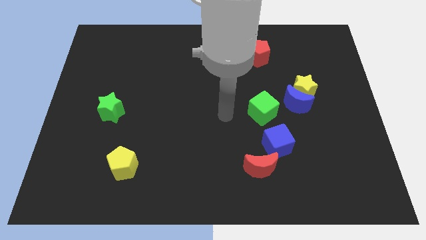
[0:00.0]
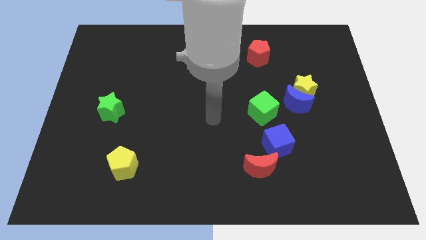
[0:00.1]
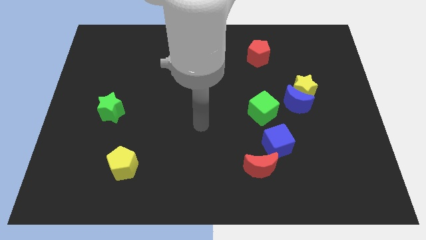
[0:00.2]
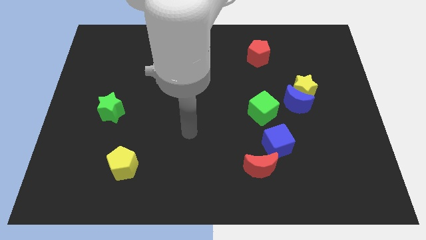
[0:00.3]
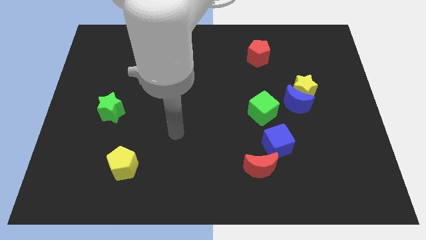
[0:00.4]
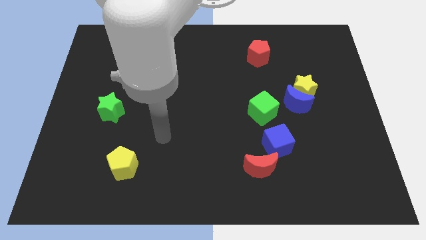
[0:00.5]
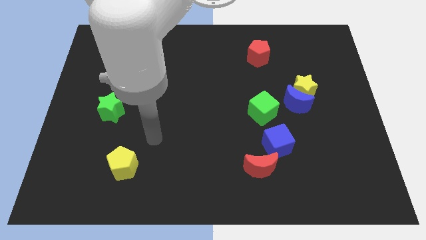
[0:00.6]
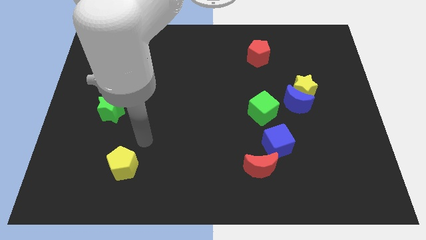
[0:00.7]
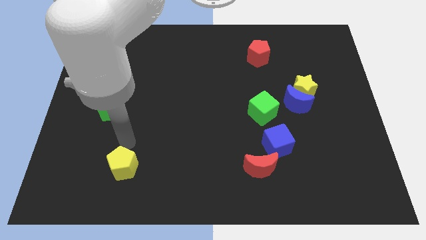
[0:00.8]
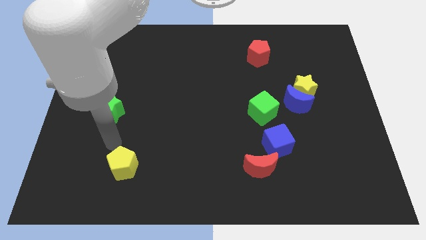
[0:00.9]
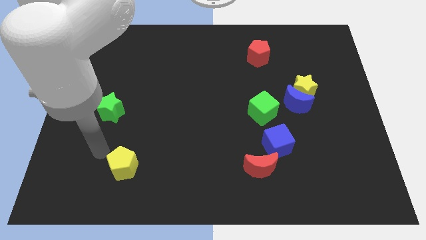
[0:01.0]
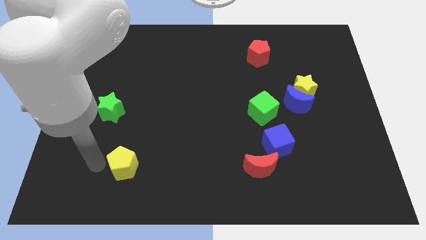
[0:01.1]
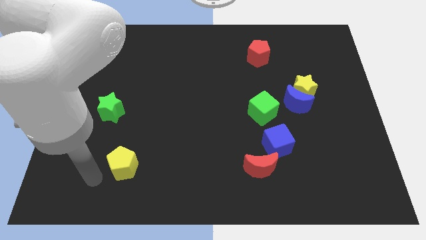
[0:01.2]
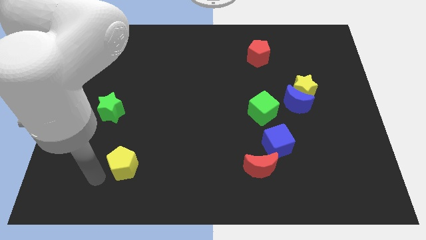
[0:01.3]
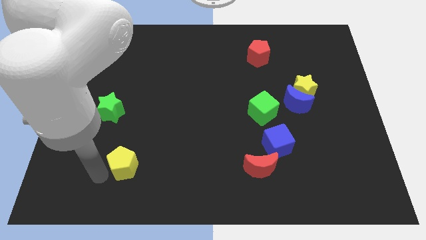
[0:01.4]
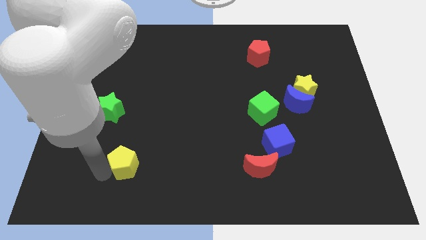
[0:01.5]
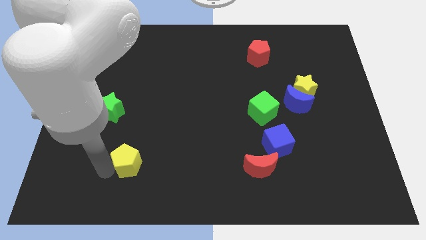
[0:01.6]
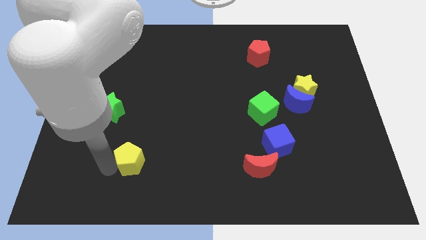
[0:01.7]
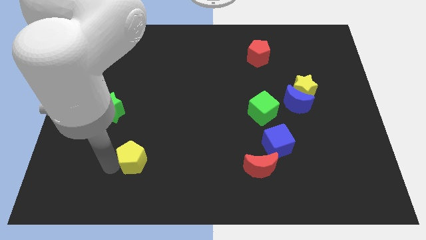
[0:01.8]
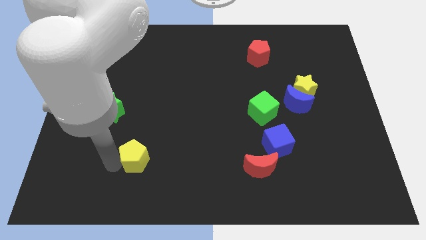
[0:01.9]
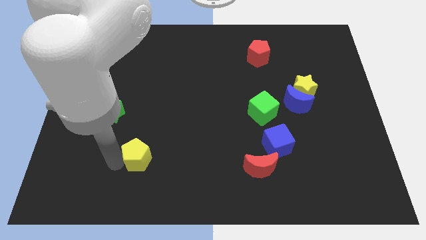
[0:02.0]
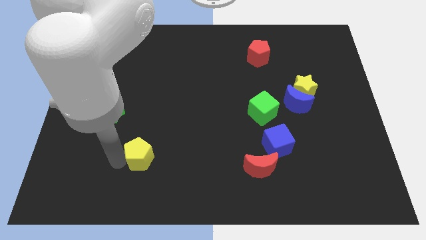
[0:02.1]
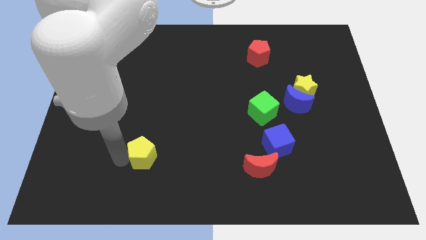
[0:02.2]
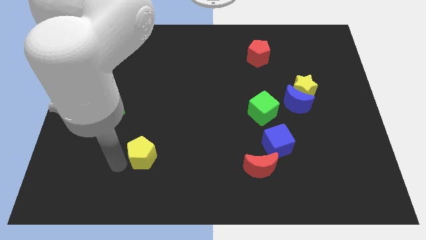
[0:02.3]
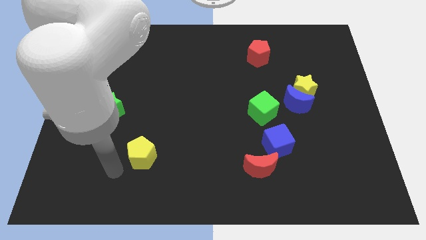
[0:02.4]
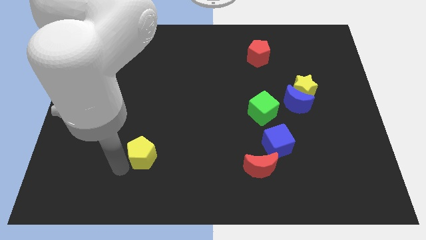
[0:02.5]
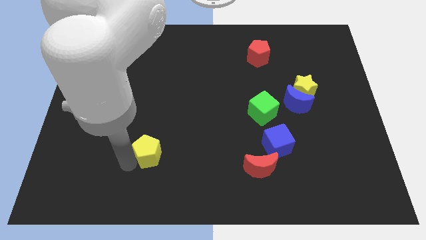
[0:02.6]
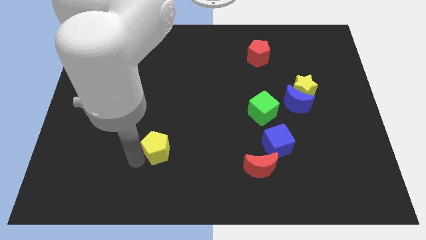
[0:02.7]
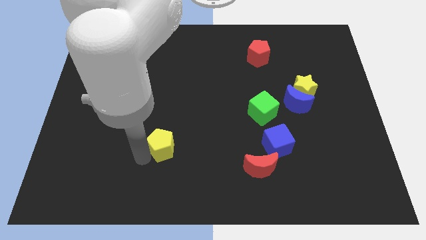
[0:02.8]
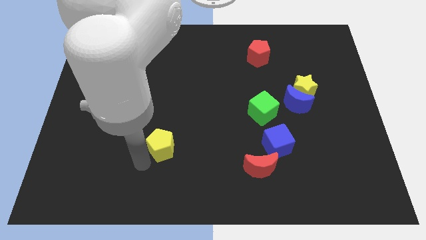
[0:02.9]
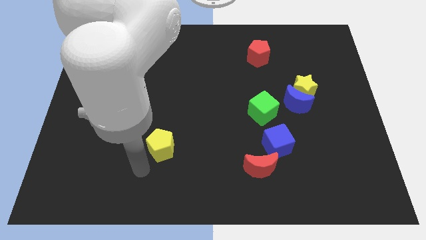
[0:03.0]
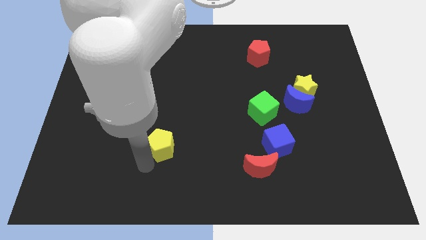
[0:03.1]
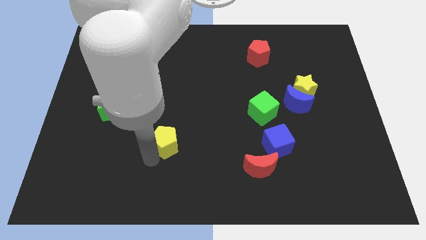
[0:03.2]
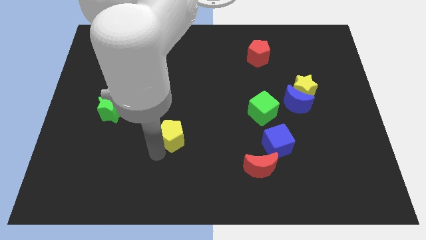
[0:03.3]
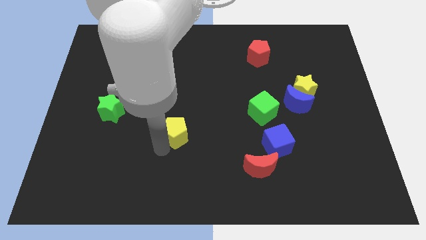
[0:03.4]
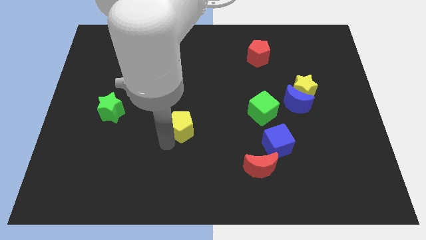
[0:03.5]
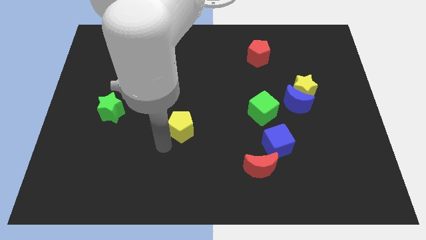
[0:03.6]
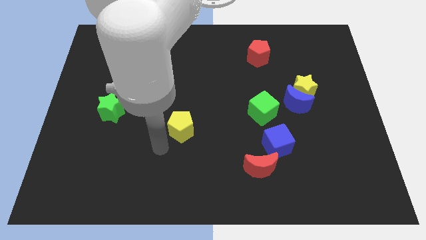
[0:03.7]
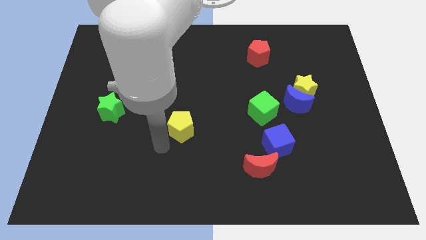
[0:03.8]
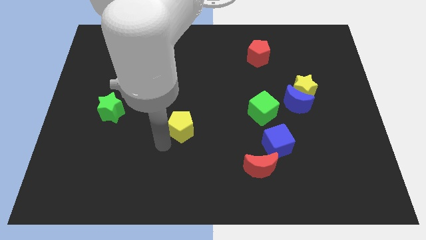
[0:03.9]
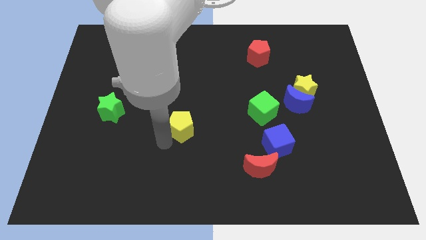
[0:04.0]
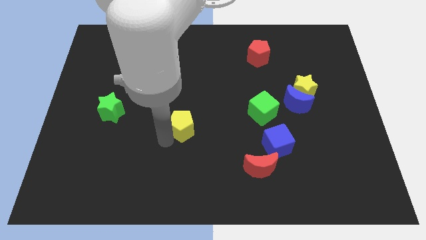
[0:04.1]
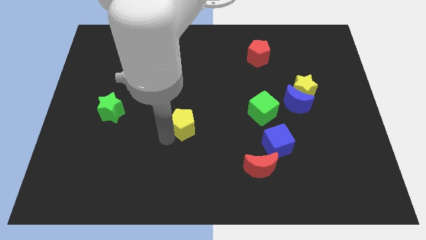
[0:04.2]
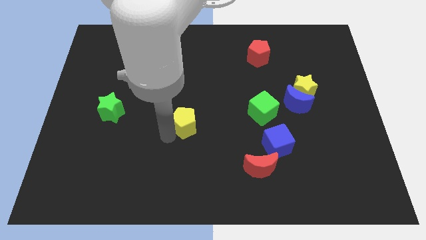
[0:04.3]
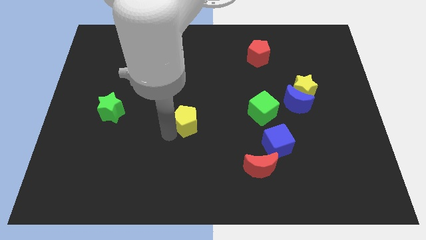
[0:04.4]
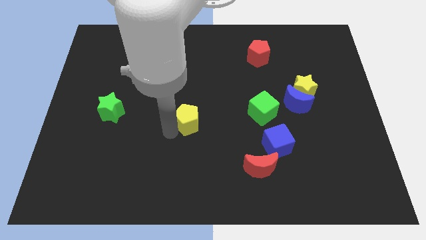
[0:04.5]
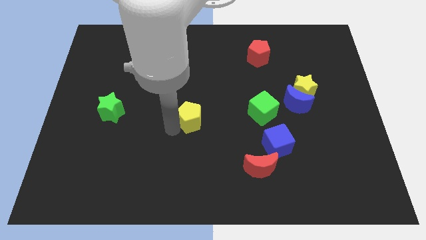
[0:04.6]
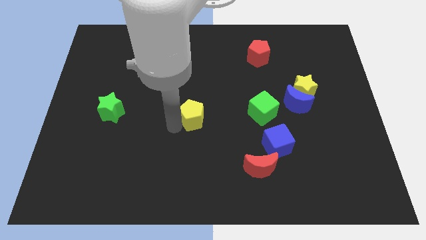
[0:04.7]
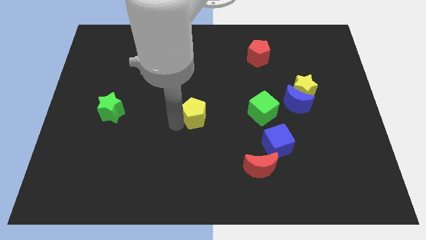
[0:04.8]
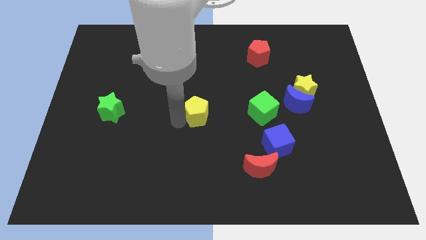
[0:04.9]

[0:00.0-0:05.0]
push the yellow pentagon up and to the right diagonally

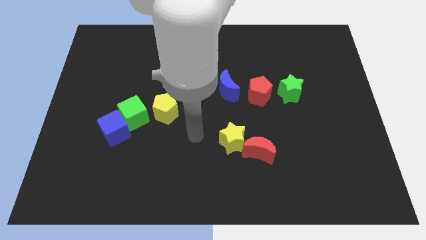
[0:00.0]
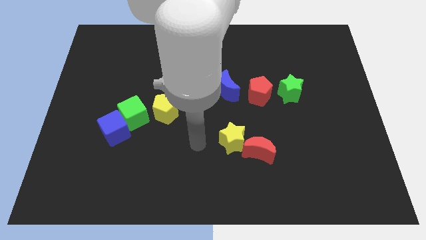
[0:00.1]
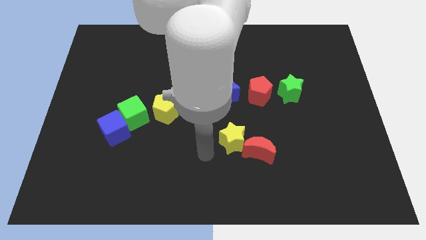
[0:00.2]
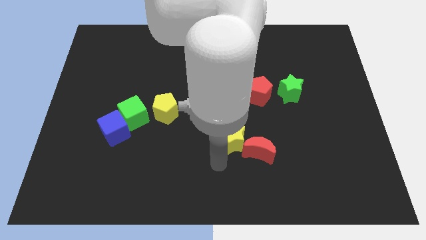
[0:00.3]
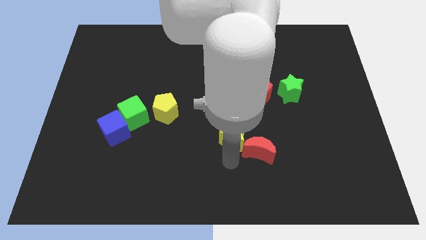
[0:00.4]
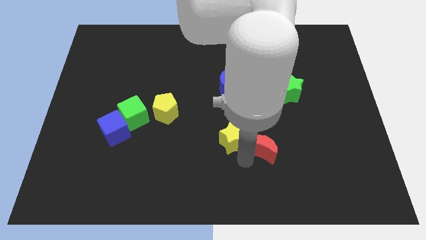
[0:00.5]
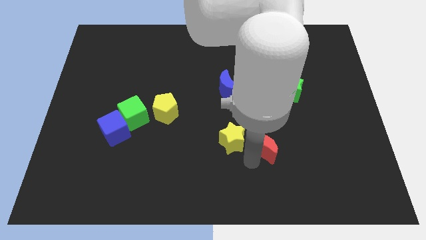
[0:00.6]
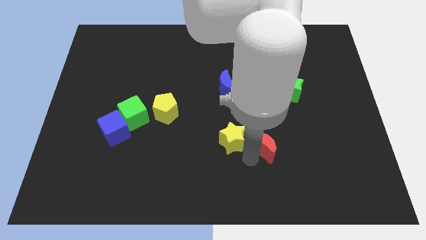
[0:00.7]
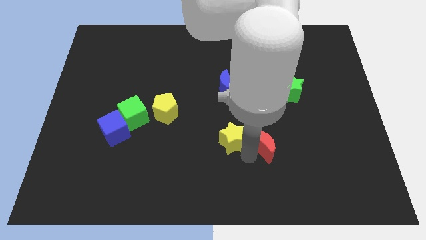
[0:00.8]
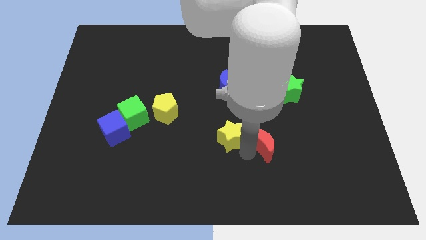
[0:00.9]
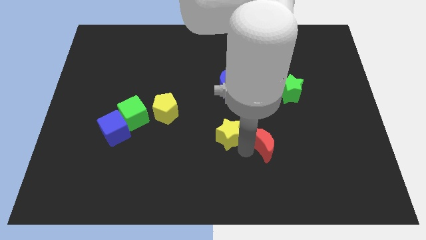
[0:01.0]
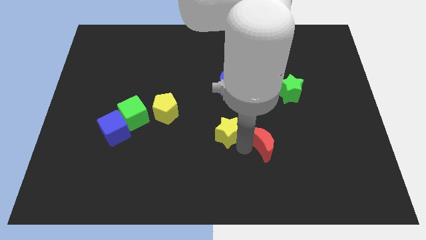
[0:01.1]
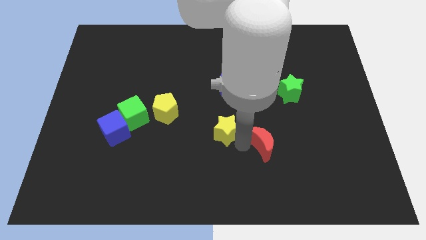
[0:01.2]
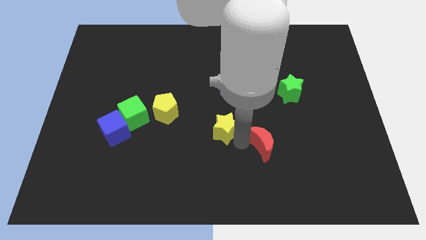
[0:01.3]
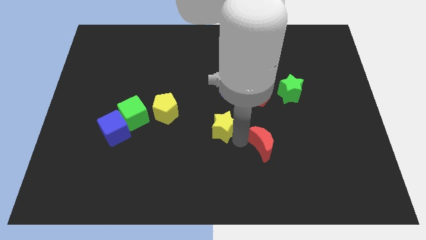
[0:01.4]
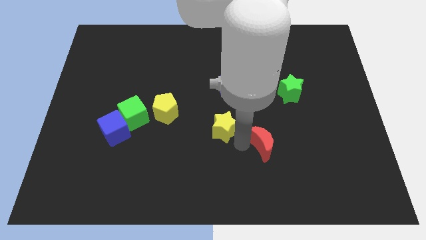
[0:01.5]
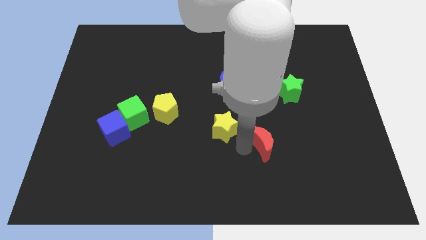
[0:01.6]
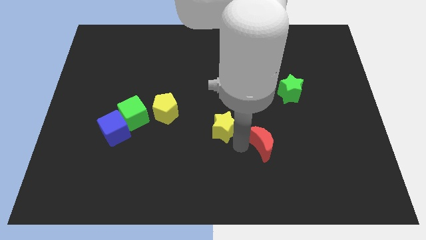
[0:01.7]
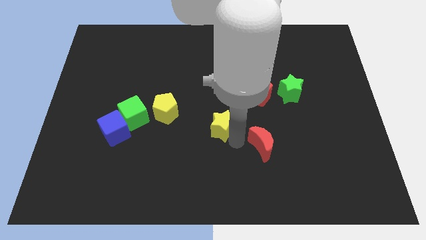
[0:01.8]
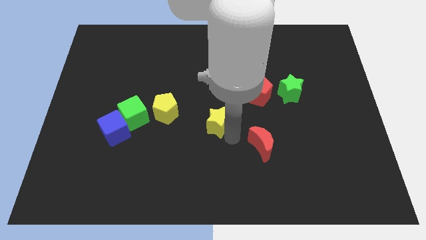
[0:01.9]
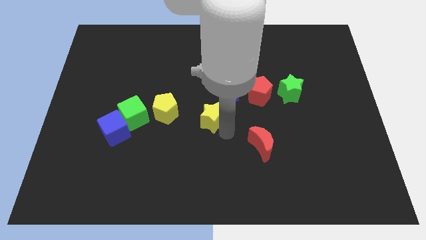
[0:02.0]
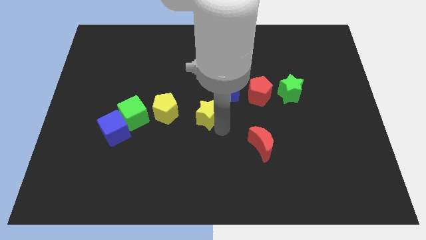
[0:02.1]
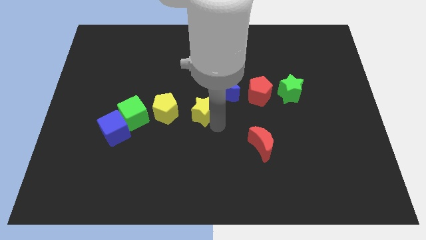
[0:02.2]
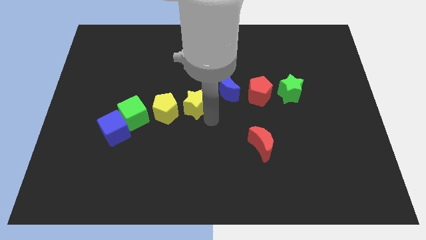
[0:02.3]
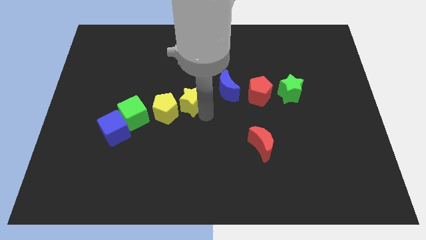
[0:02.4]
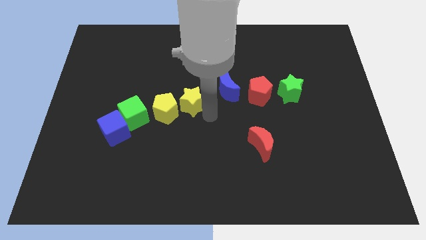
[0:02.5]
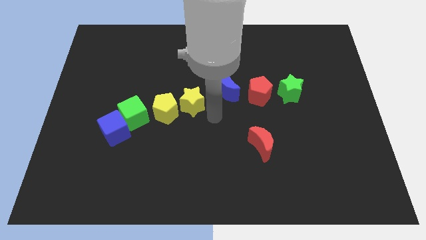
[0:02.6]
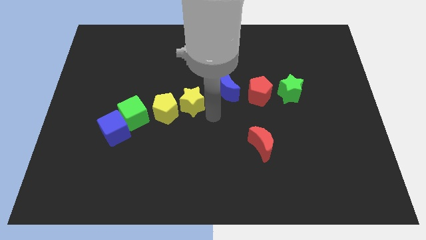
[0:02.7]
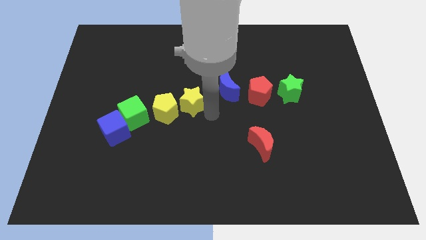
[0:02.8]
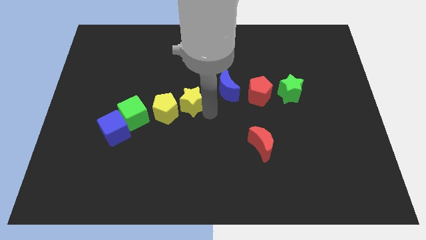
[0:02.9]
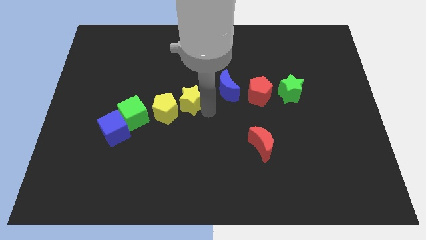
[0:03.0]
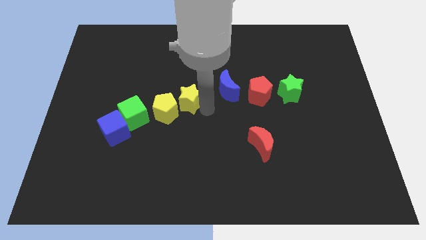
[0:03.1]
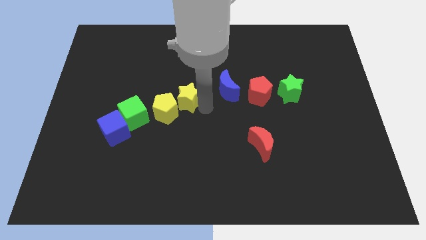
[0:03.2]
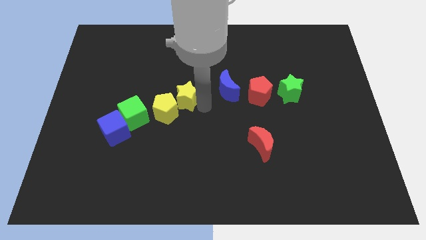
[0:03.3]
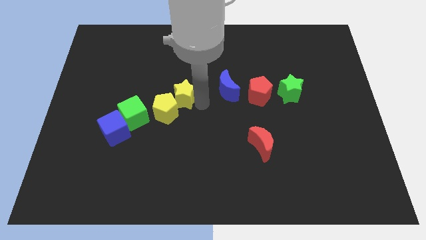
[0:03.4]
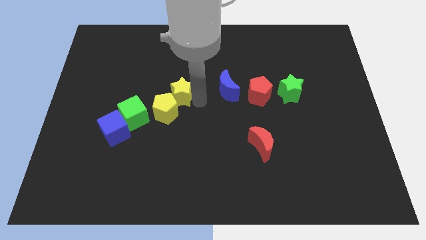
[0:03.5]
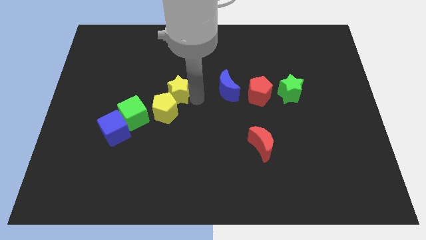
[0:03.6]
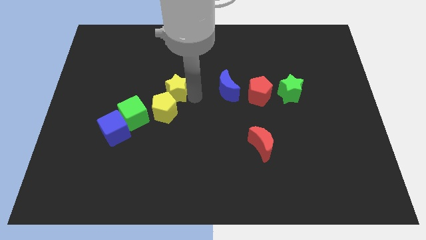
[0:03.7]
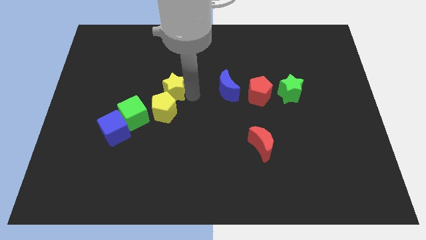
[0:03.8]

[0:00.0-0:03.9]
push the yellow star upwards and to the left
